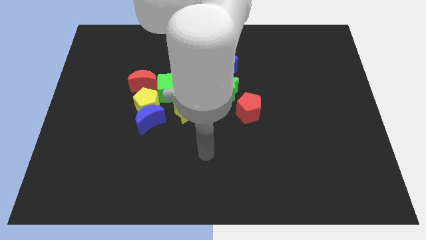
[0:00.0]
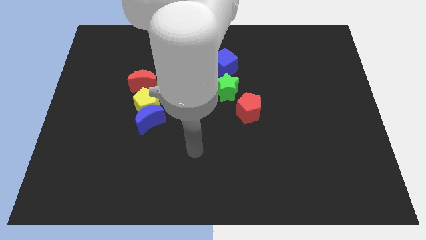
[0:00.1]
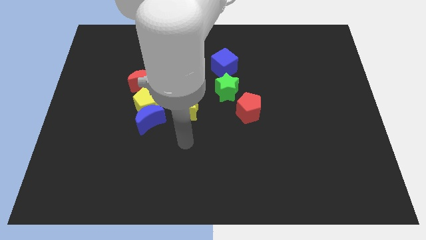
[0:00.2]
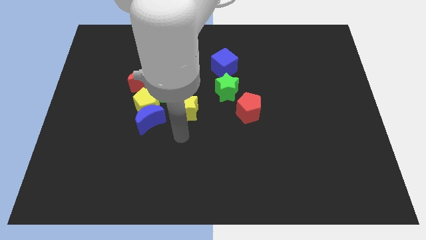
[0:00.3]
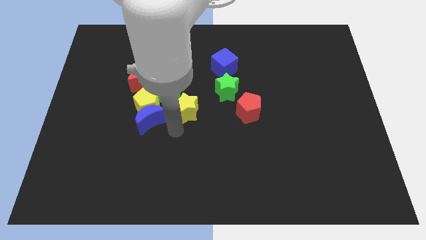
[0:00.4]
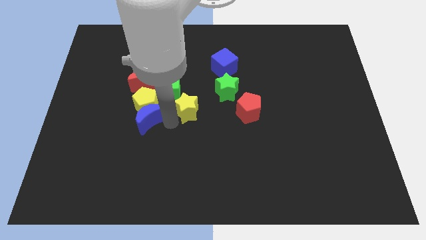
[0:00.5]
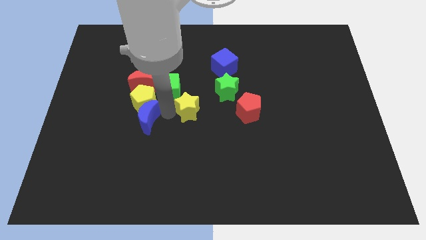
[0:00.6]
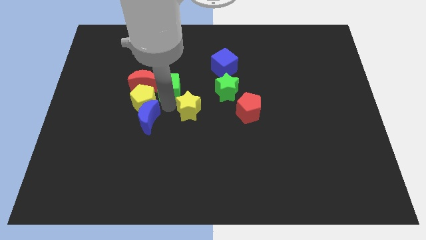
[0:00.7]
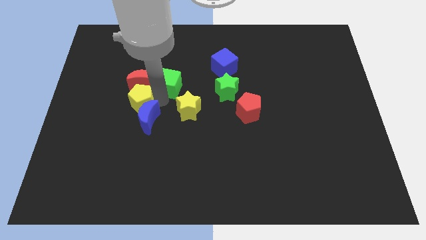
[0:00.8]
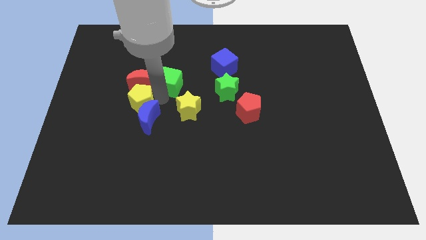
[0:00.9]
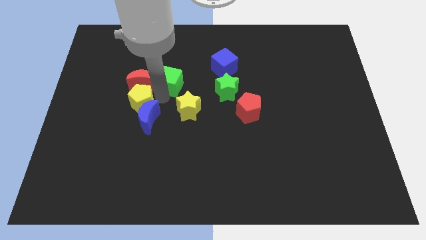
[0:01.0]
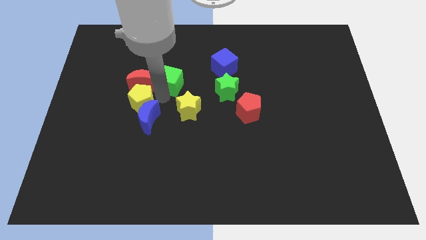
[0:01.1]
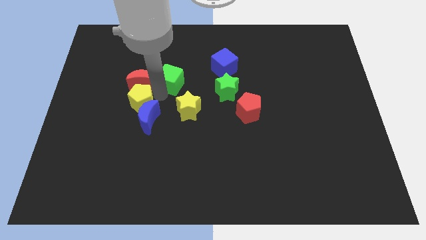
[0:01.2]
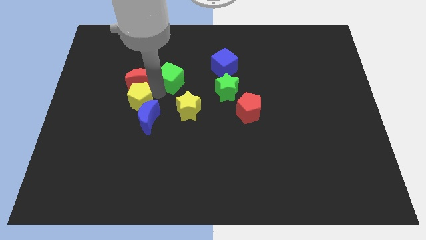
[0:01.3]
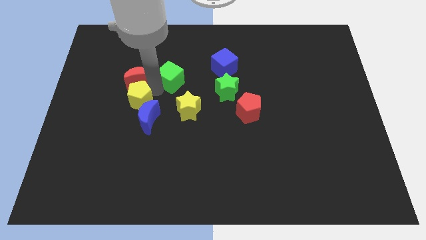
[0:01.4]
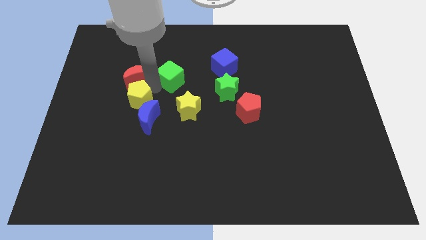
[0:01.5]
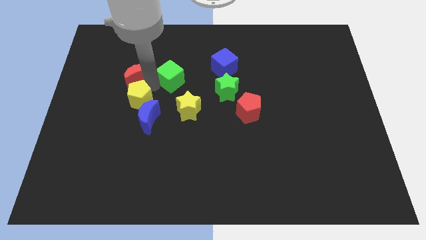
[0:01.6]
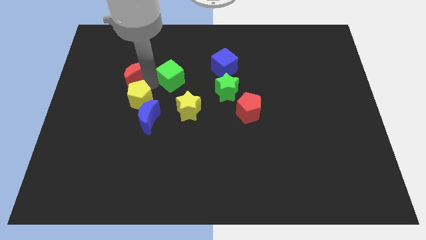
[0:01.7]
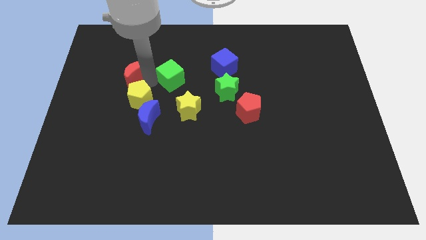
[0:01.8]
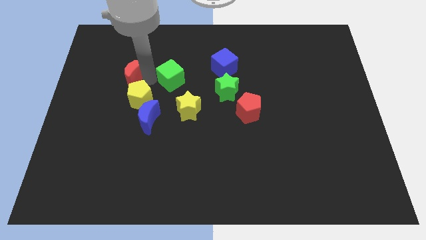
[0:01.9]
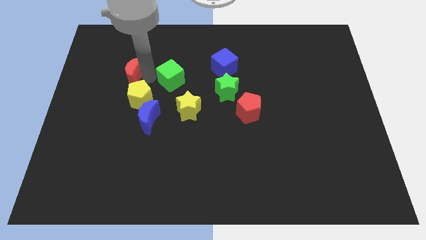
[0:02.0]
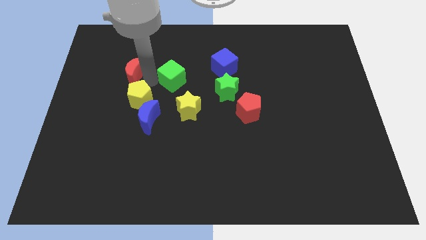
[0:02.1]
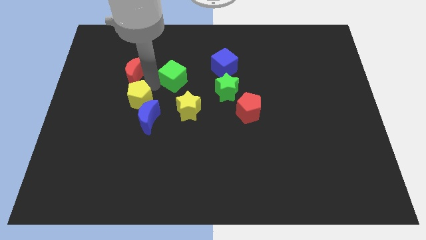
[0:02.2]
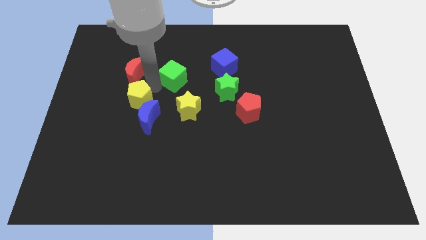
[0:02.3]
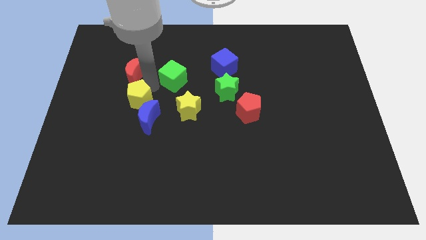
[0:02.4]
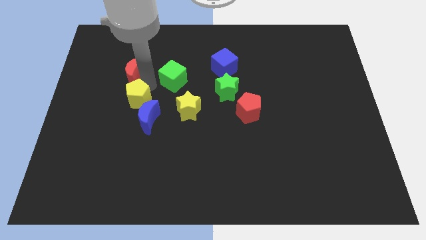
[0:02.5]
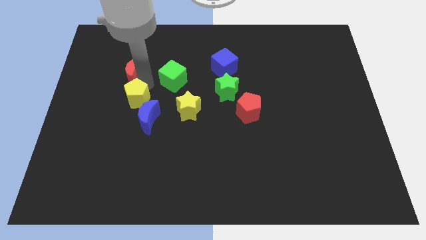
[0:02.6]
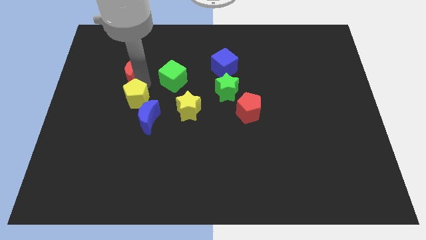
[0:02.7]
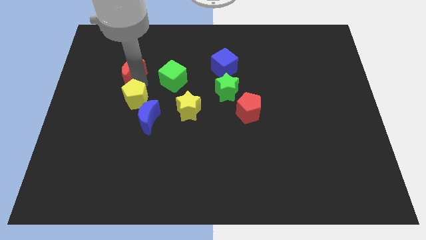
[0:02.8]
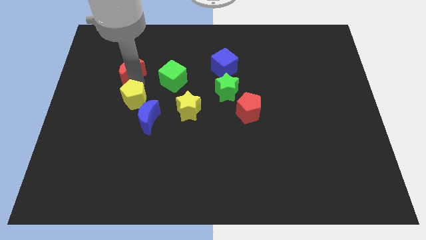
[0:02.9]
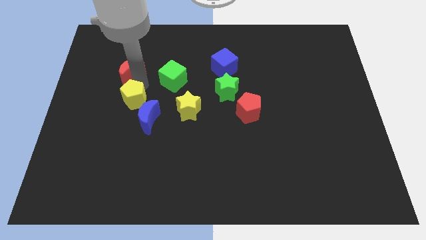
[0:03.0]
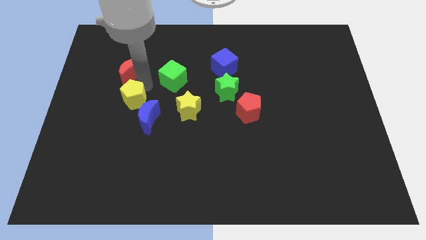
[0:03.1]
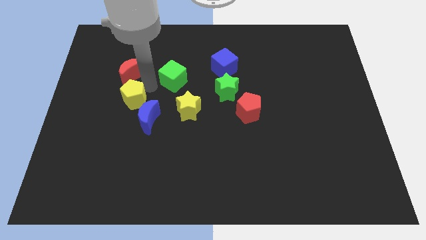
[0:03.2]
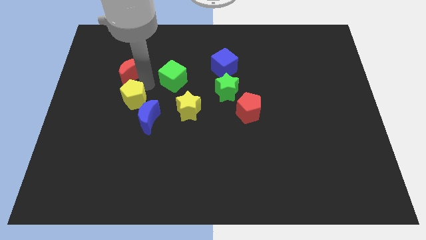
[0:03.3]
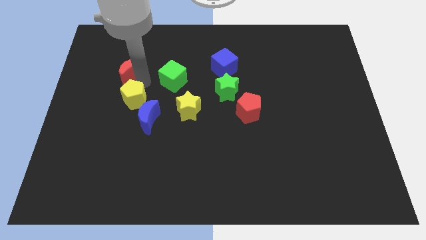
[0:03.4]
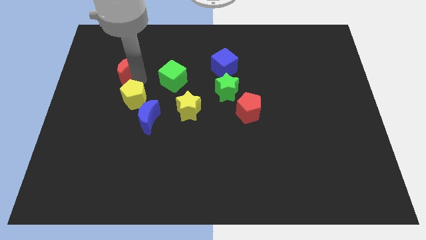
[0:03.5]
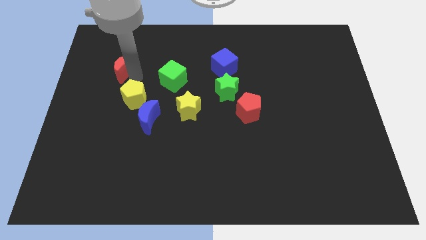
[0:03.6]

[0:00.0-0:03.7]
separate the red moon from the green cube and yellow pentagon

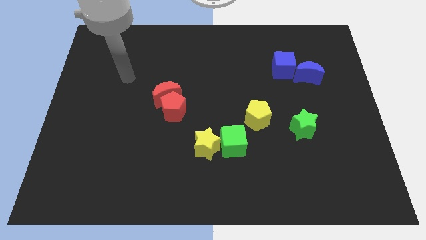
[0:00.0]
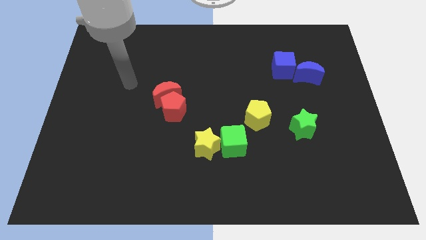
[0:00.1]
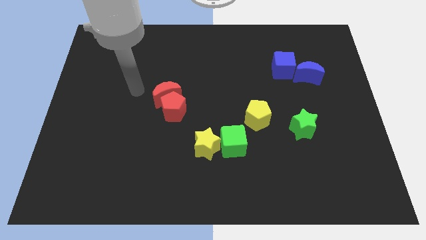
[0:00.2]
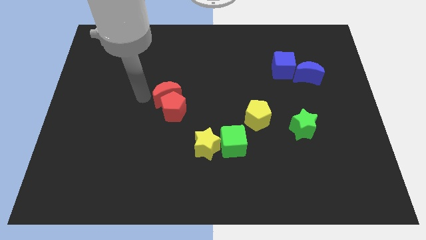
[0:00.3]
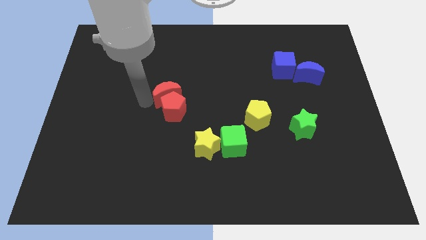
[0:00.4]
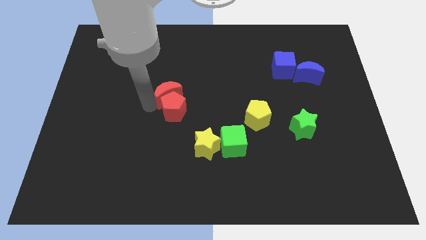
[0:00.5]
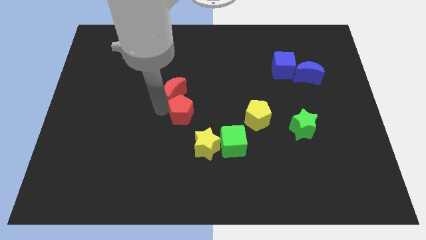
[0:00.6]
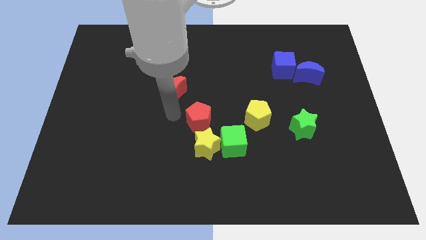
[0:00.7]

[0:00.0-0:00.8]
separate the red moon from the red pentagon

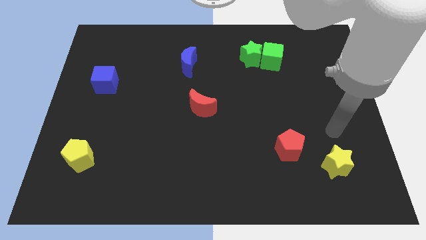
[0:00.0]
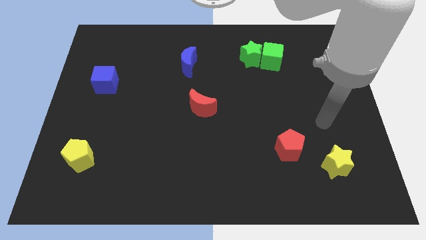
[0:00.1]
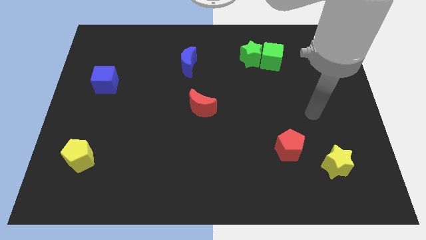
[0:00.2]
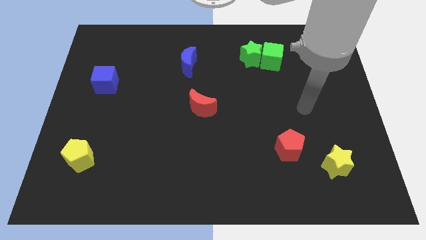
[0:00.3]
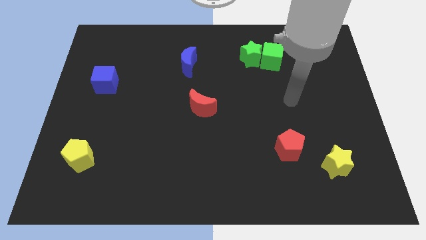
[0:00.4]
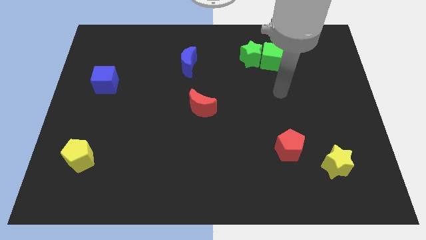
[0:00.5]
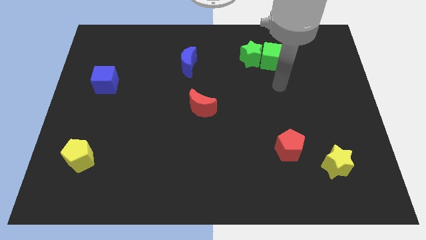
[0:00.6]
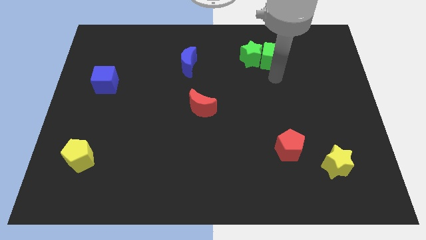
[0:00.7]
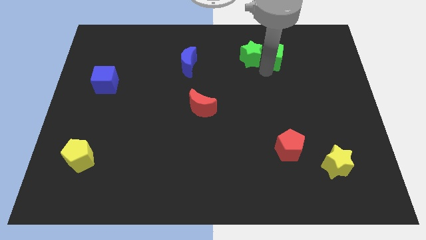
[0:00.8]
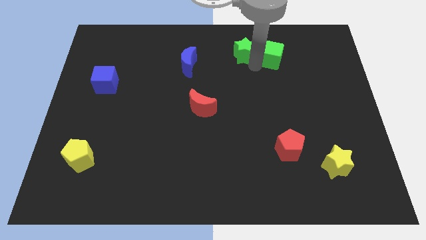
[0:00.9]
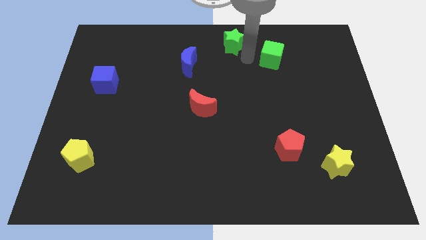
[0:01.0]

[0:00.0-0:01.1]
pull the green cube apart from the green star

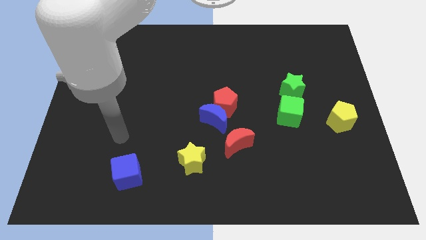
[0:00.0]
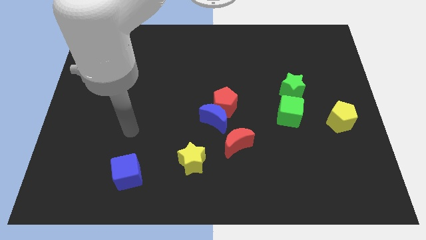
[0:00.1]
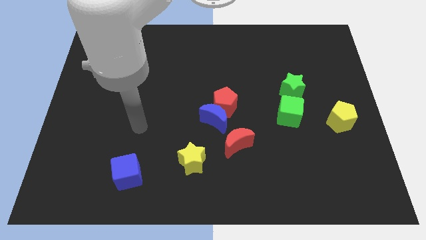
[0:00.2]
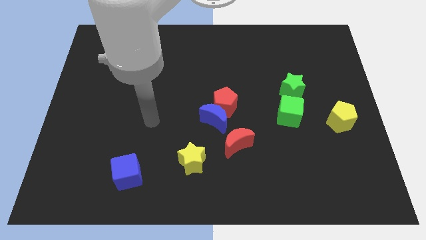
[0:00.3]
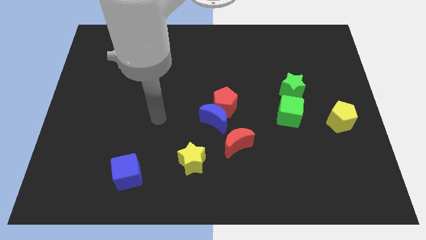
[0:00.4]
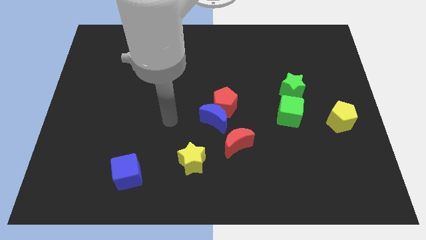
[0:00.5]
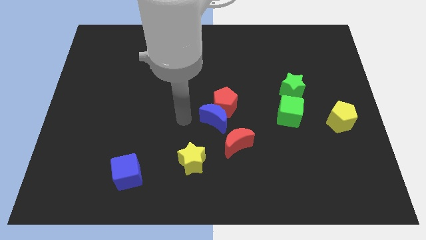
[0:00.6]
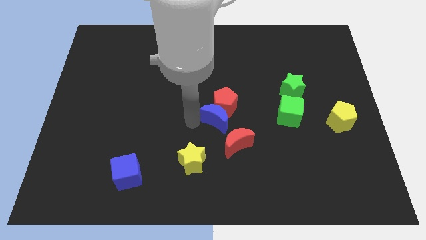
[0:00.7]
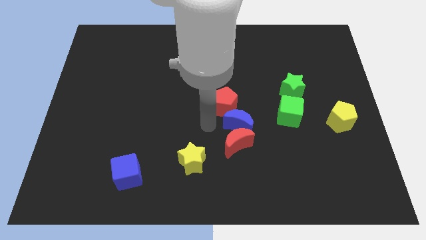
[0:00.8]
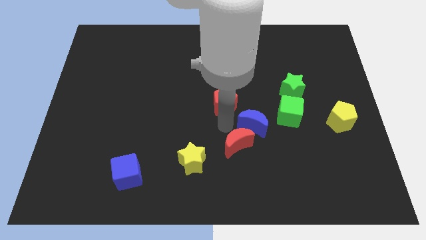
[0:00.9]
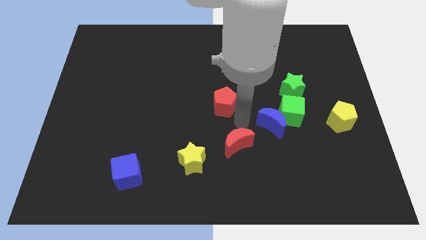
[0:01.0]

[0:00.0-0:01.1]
move the red pentagon away from the blue moon

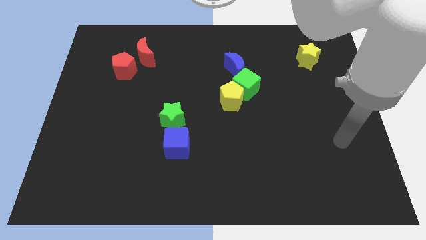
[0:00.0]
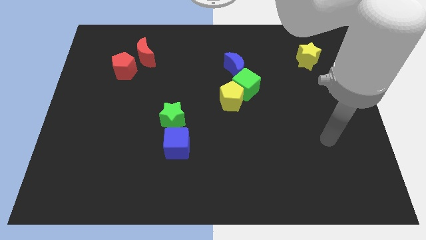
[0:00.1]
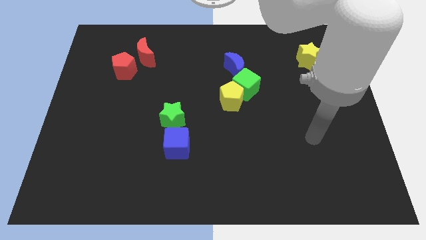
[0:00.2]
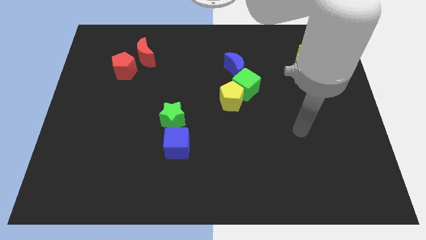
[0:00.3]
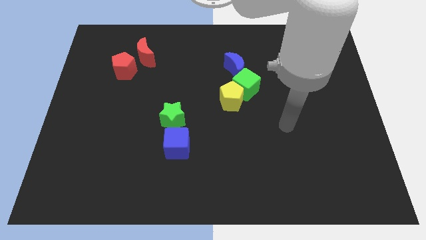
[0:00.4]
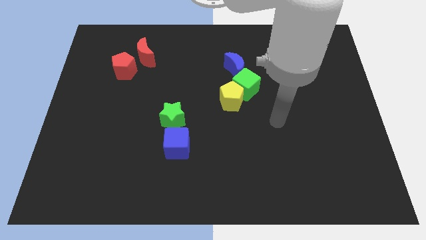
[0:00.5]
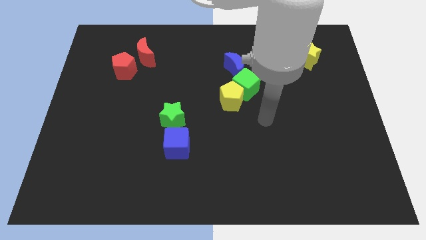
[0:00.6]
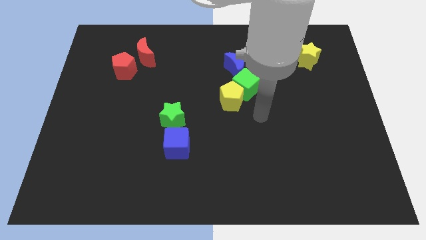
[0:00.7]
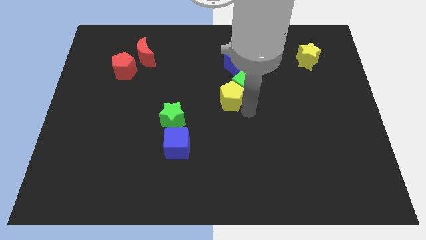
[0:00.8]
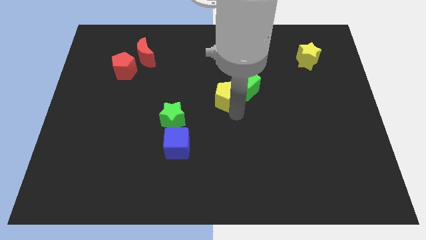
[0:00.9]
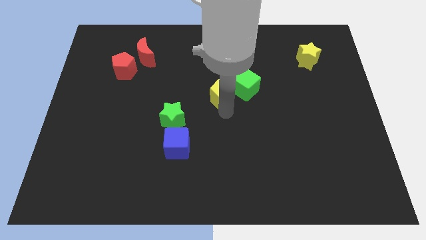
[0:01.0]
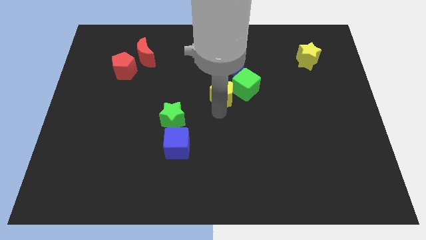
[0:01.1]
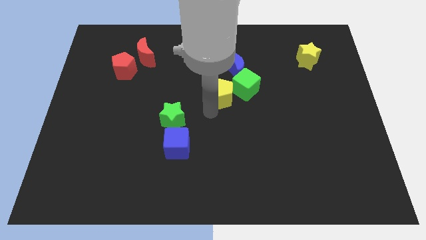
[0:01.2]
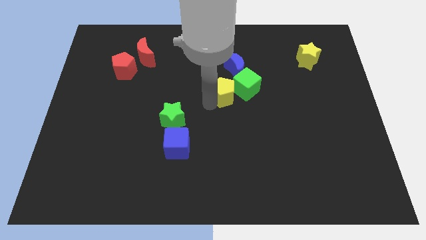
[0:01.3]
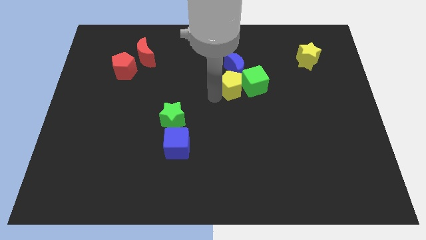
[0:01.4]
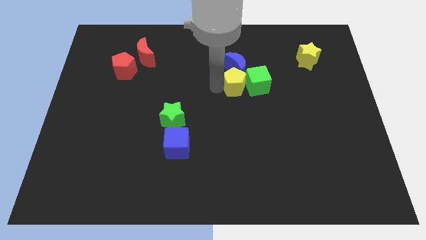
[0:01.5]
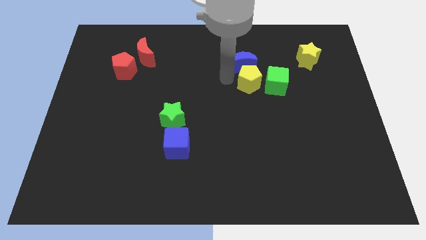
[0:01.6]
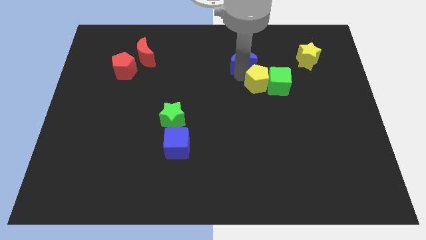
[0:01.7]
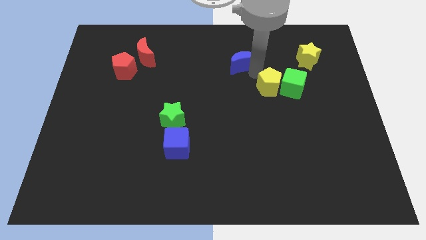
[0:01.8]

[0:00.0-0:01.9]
pull the green cube apart from the yellow pentagon and blue moon

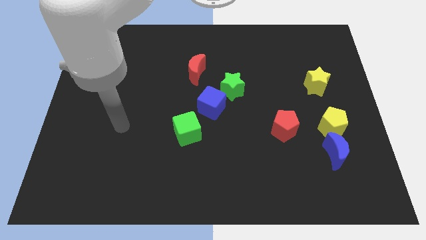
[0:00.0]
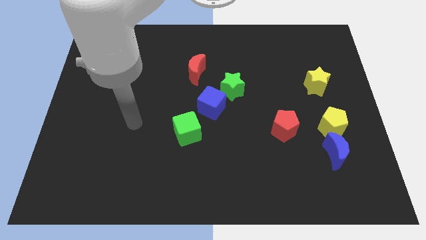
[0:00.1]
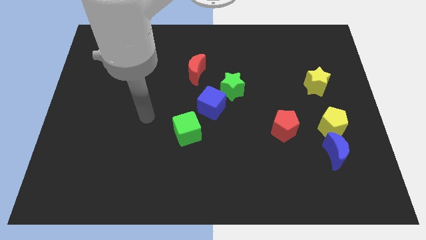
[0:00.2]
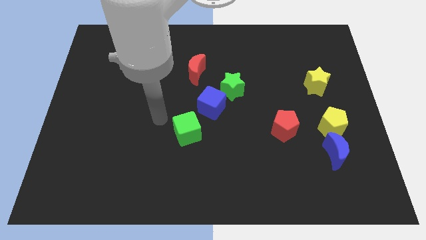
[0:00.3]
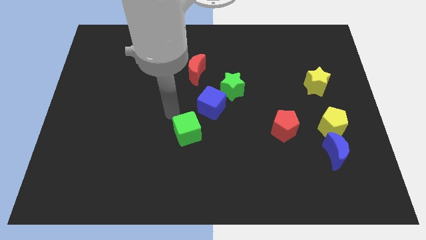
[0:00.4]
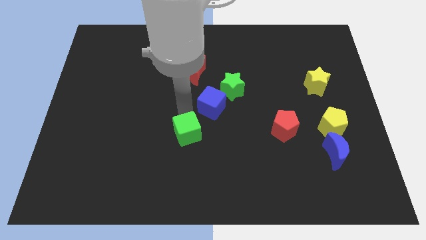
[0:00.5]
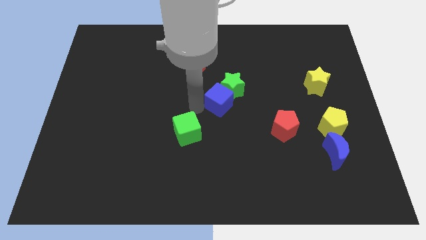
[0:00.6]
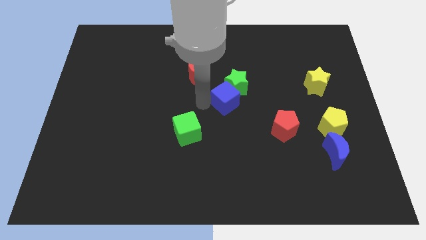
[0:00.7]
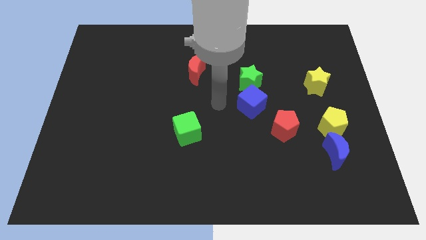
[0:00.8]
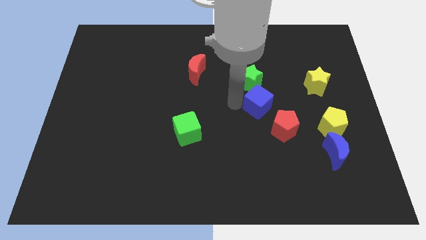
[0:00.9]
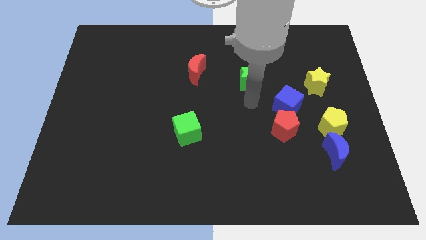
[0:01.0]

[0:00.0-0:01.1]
pull the green star apart from the blue cube
